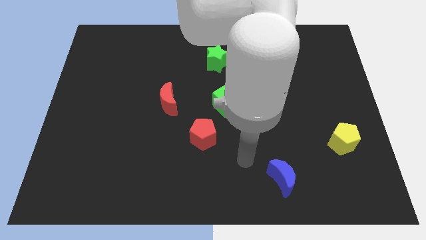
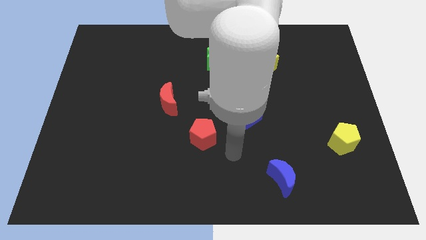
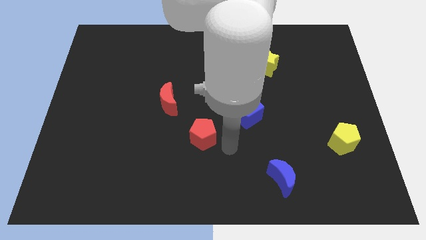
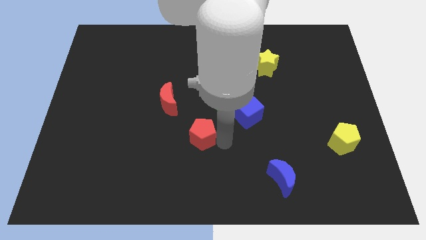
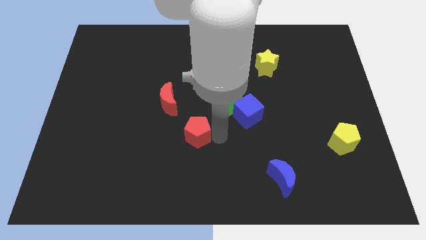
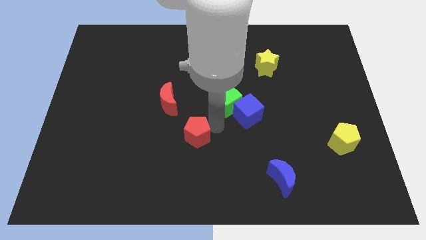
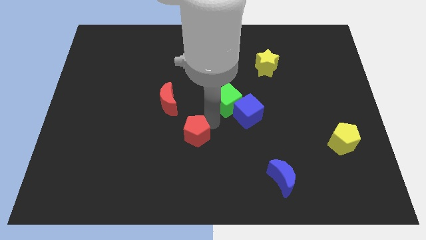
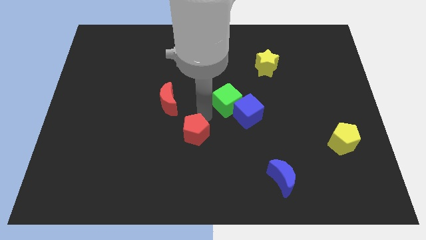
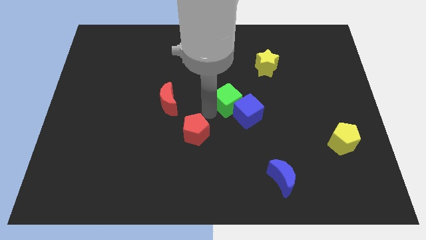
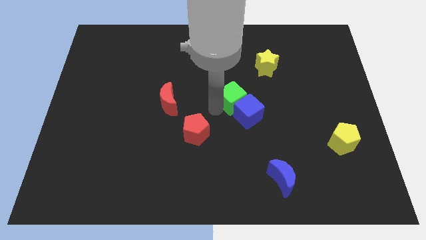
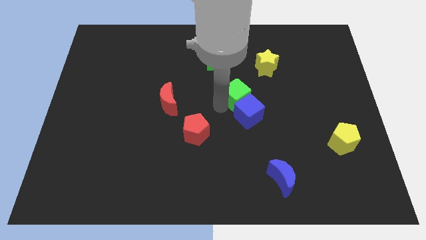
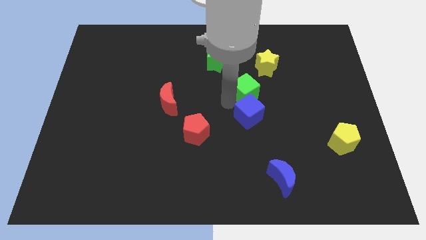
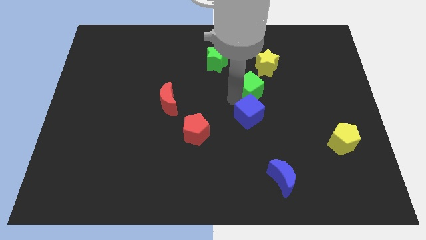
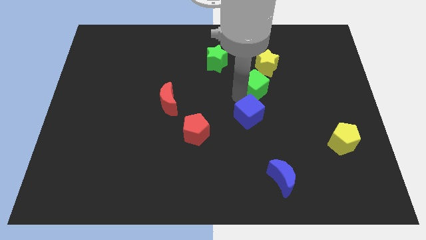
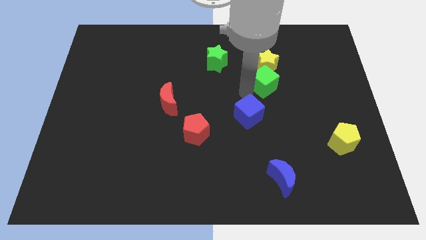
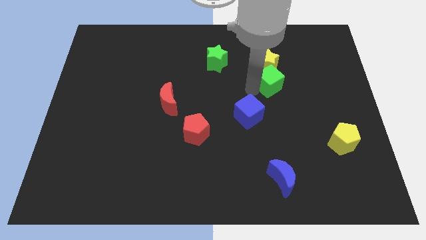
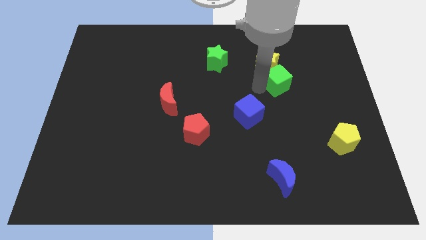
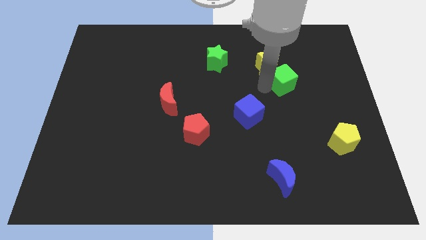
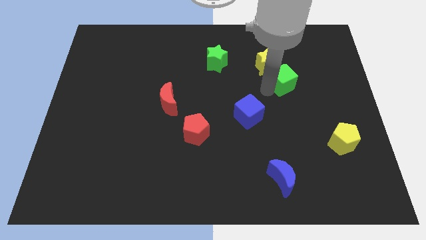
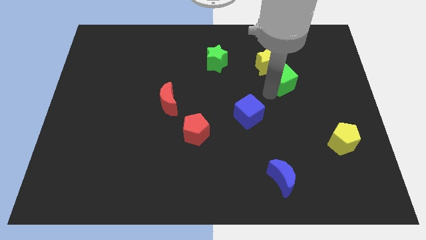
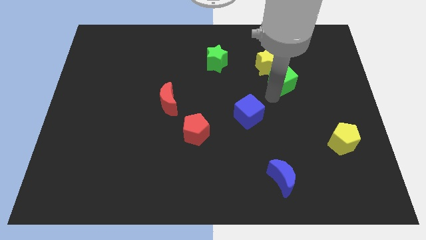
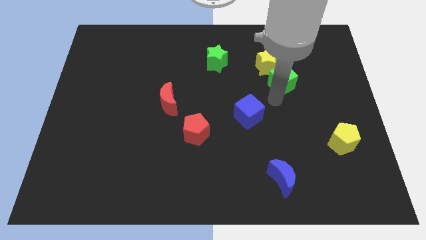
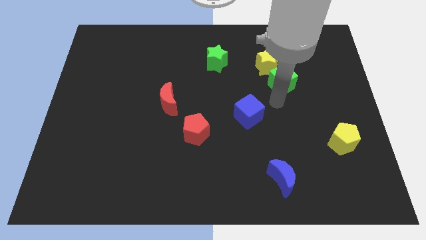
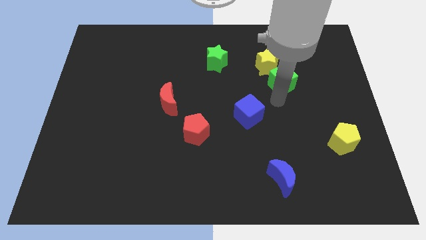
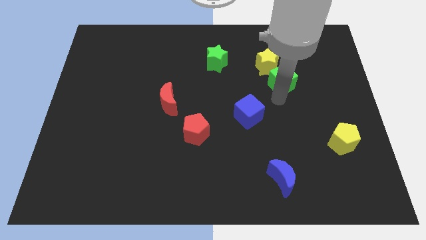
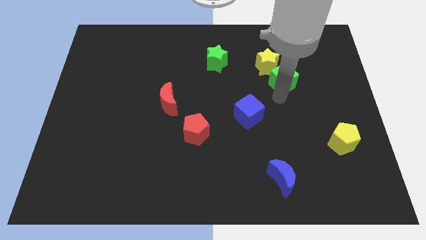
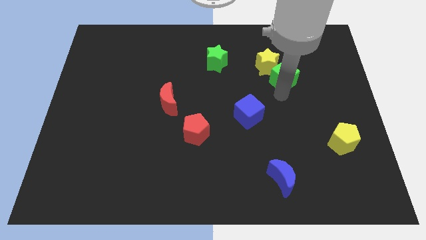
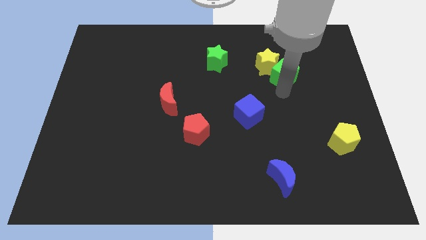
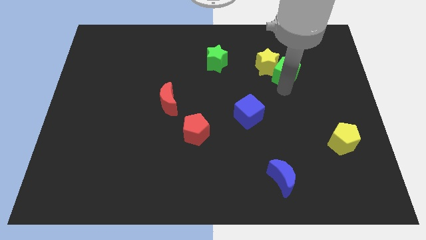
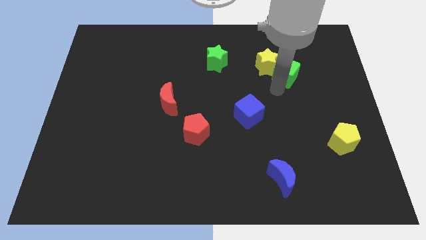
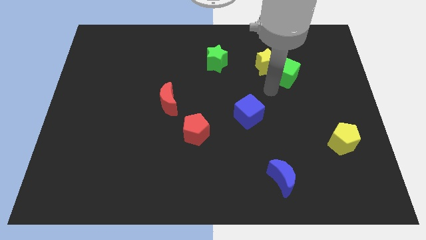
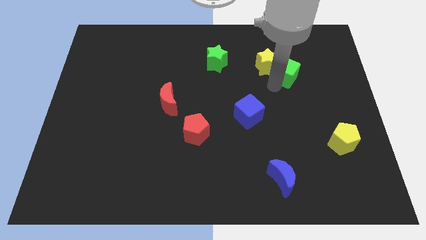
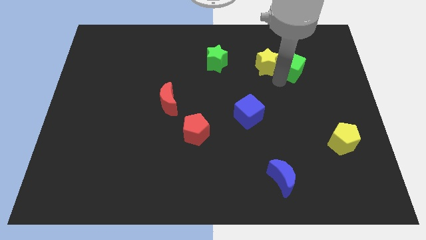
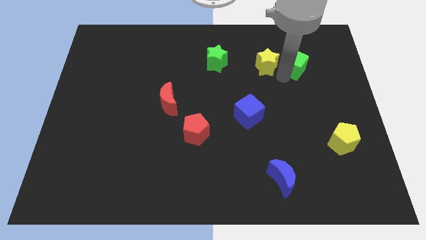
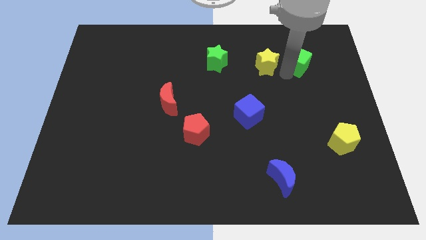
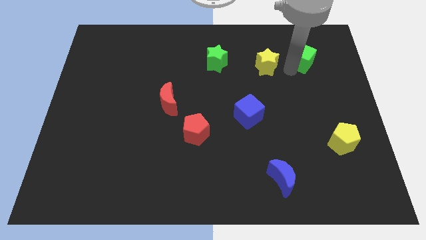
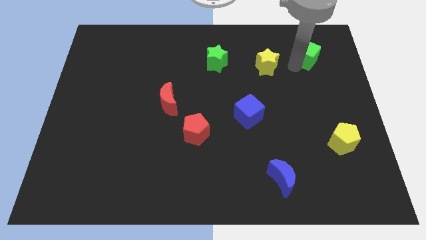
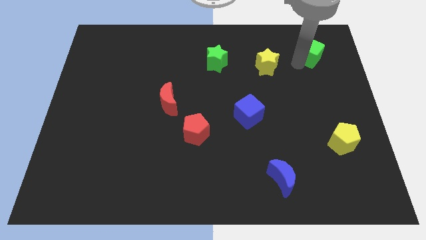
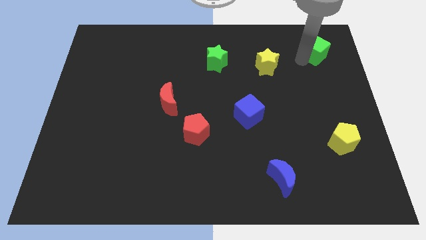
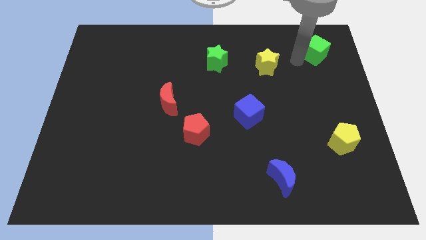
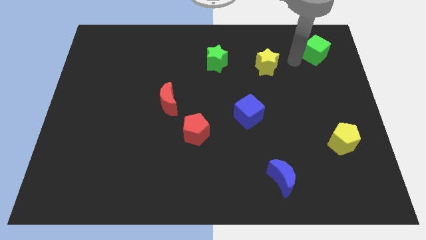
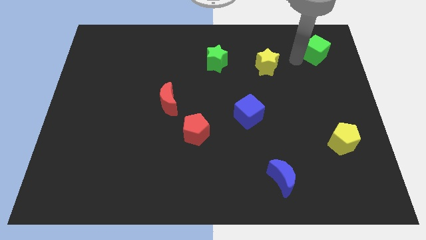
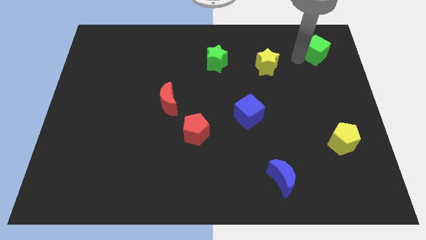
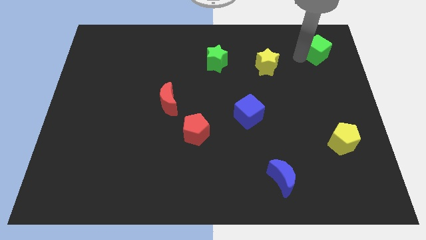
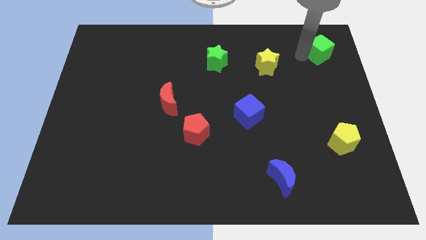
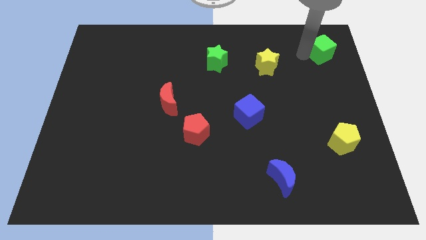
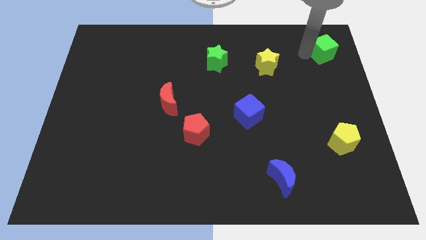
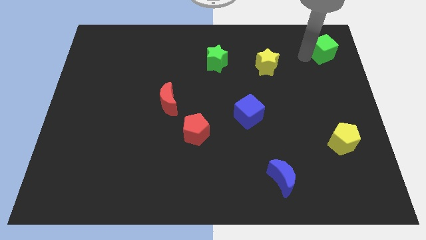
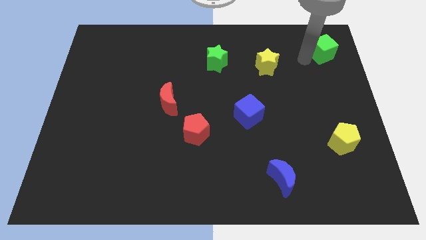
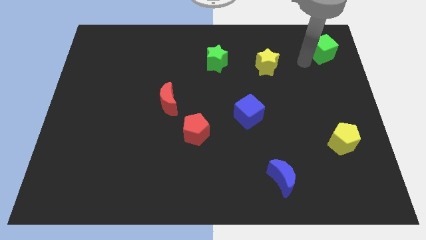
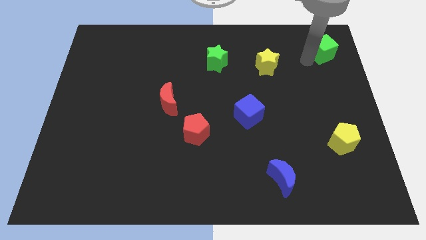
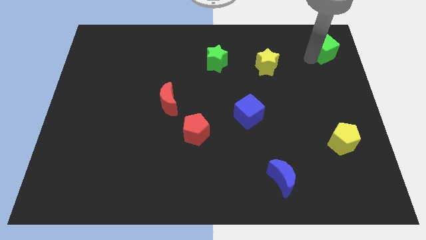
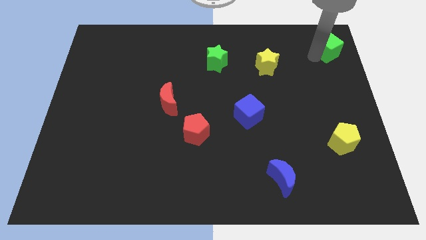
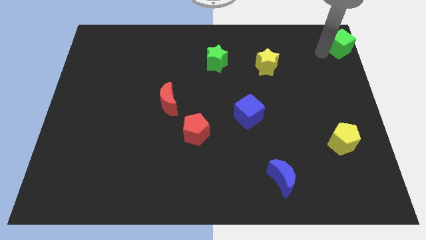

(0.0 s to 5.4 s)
put the green cube to the top right

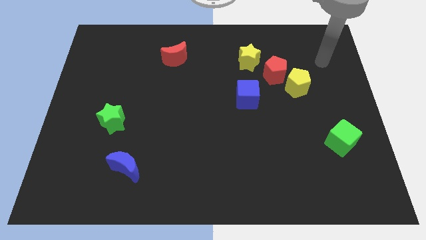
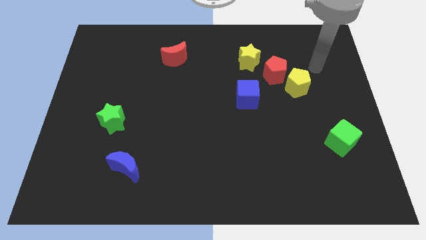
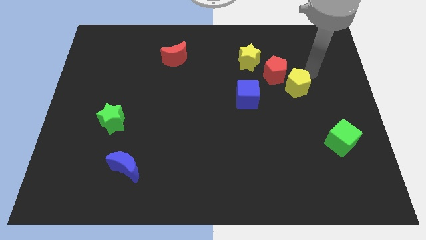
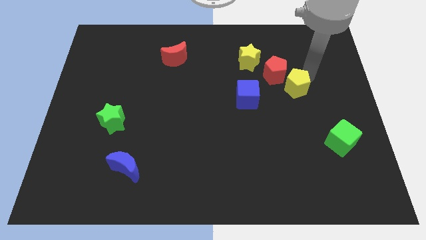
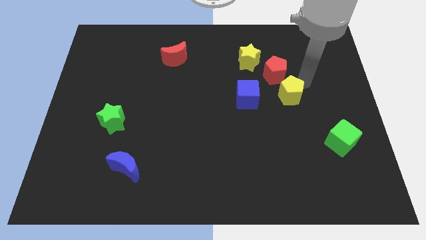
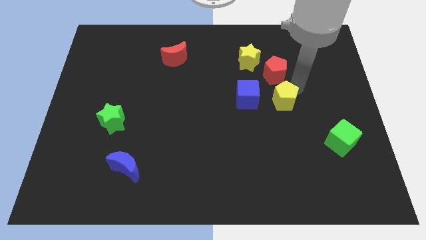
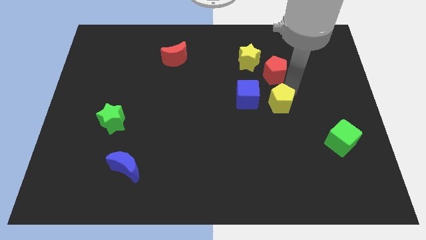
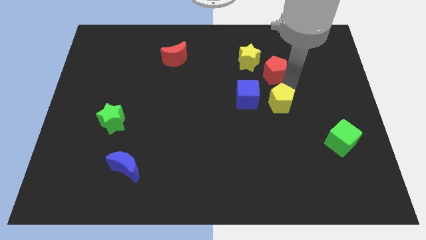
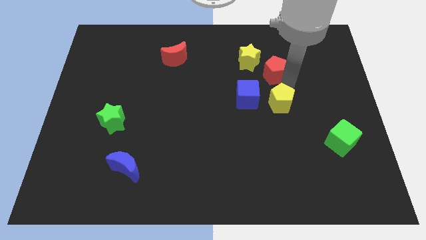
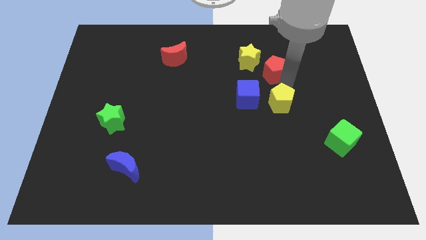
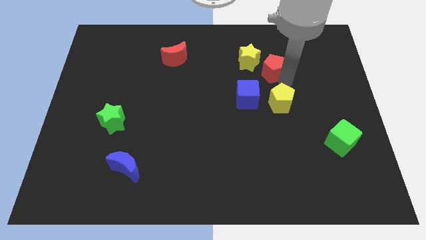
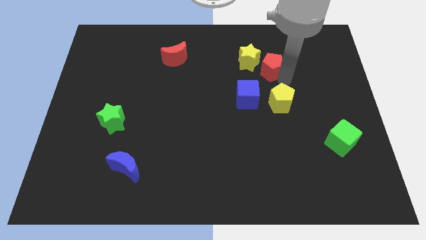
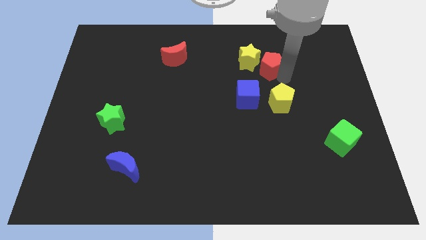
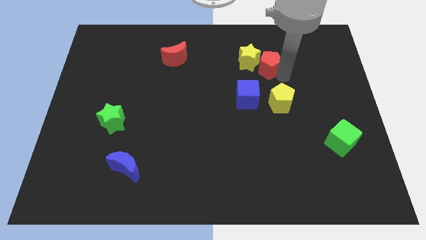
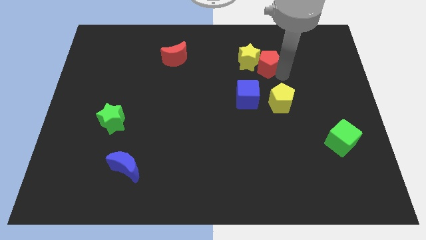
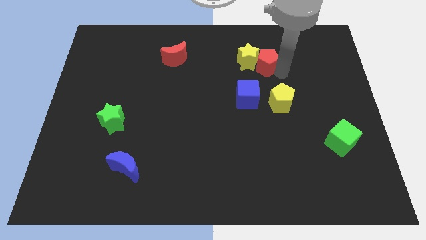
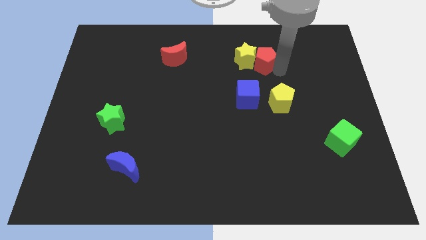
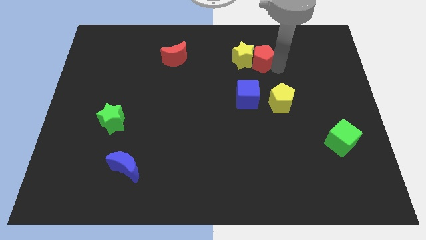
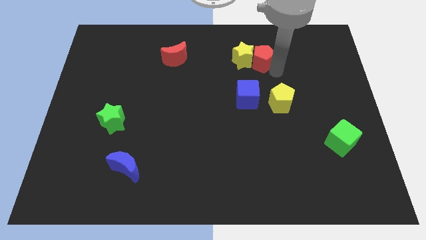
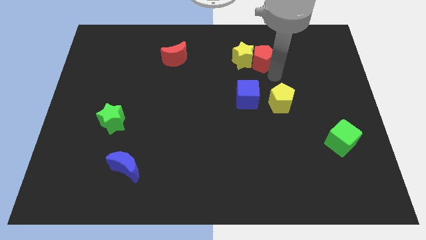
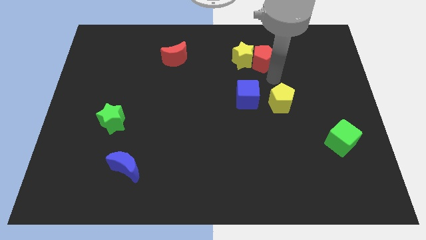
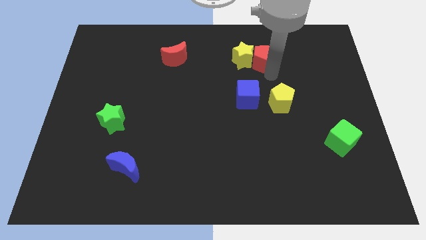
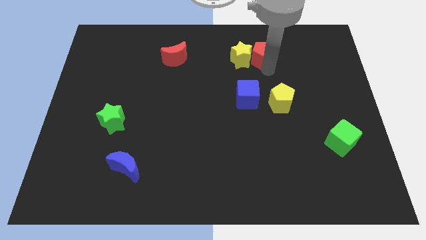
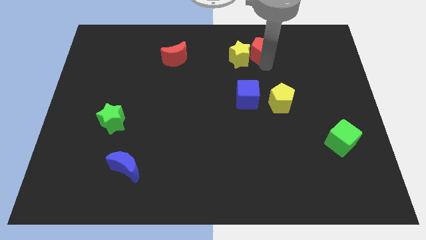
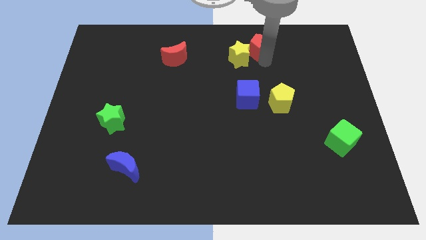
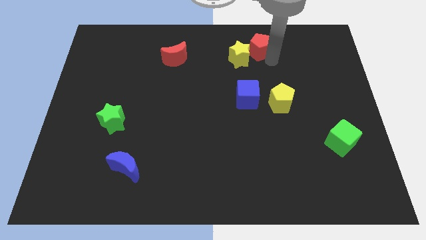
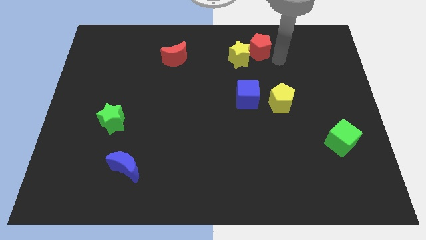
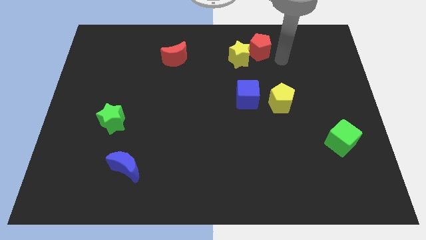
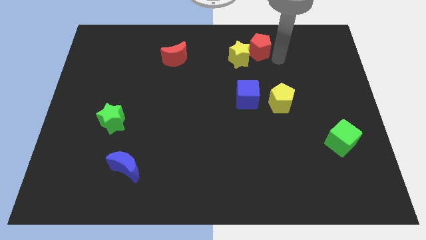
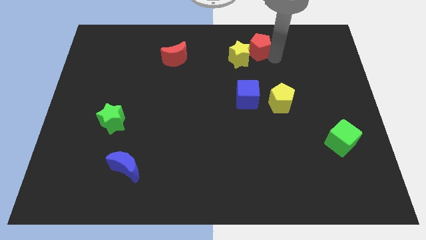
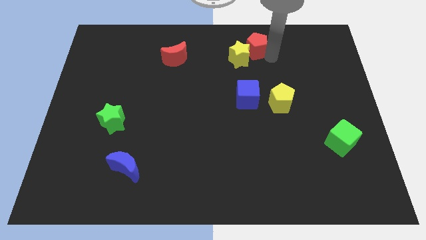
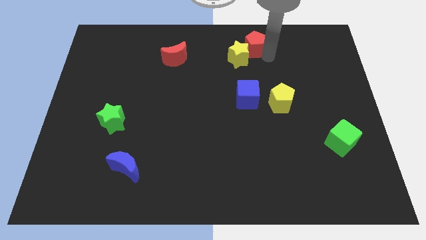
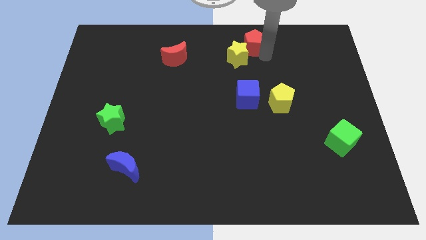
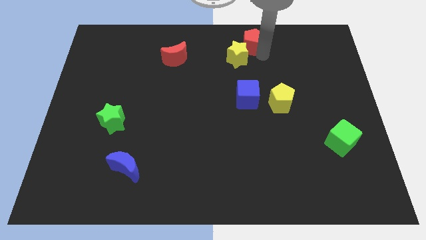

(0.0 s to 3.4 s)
push the red pentagon to the towards your base
